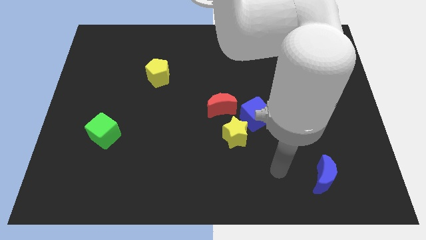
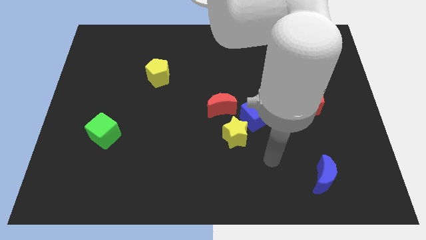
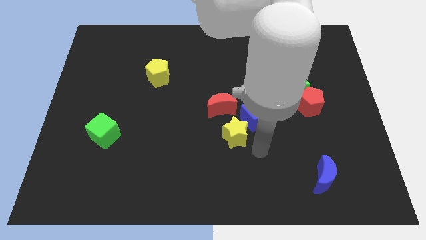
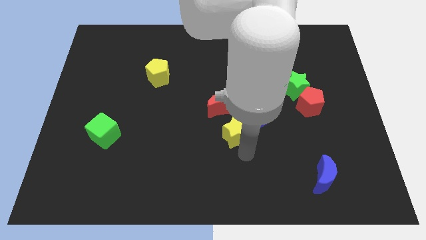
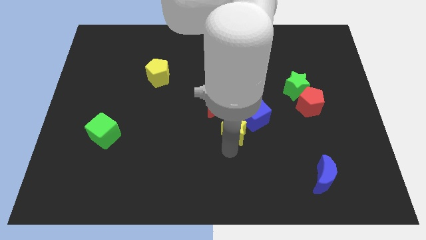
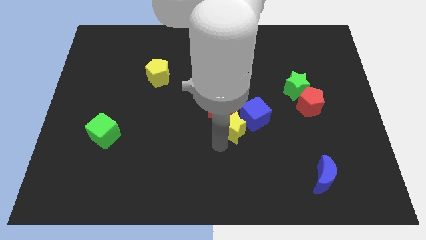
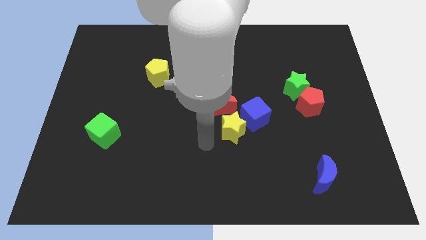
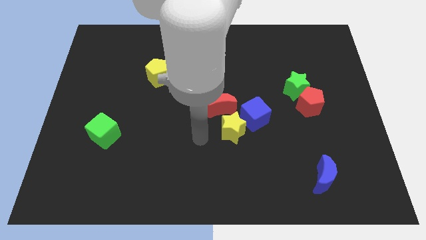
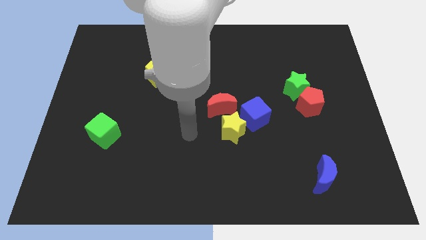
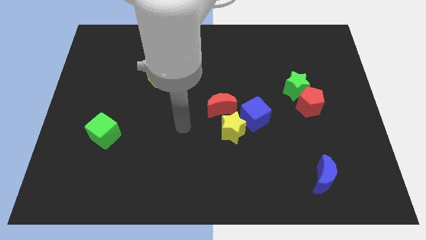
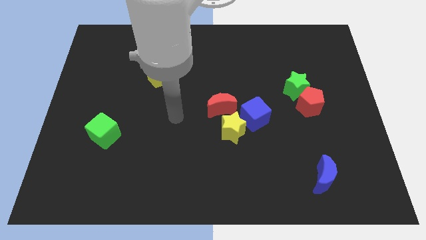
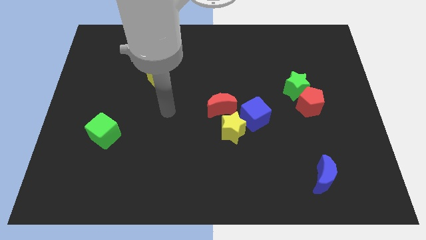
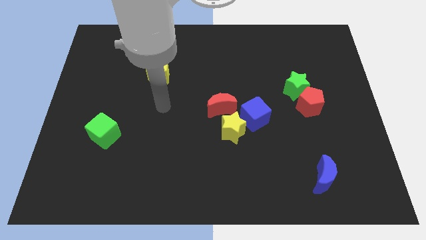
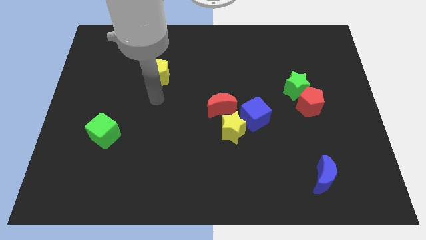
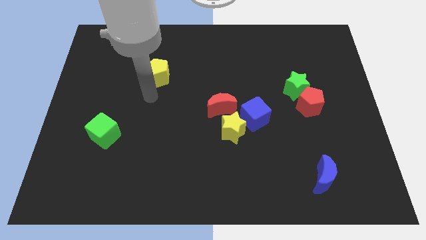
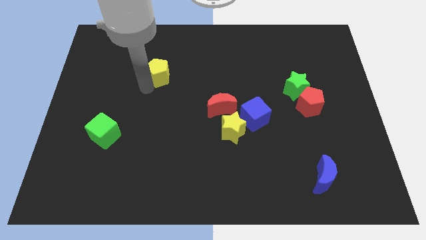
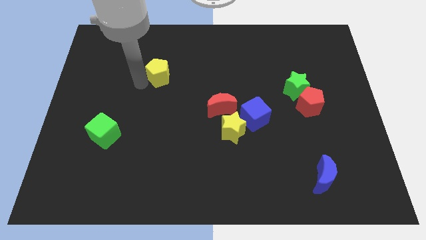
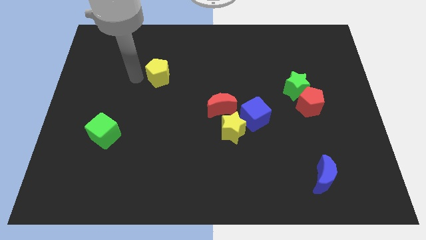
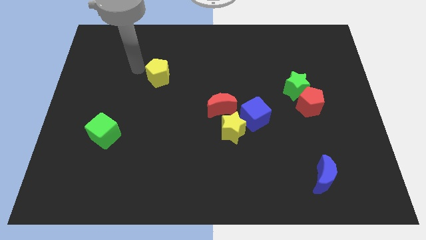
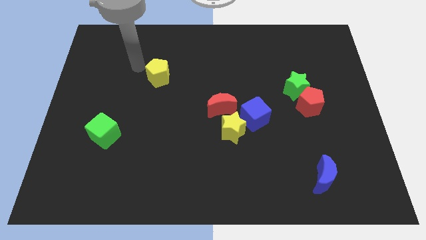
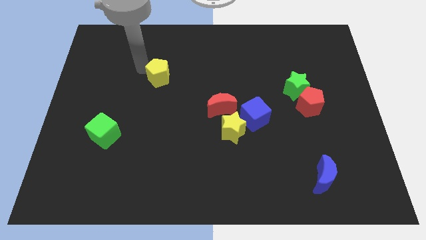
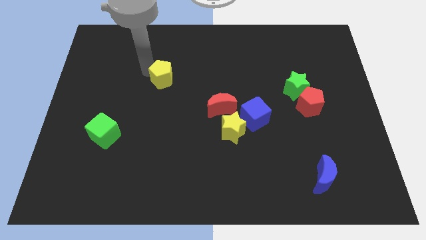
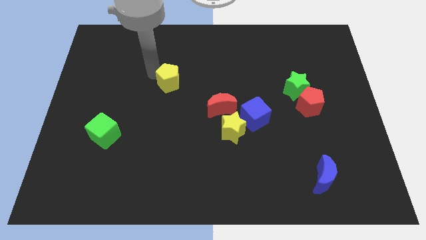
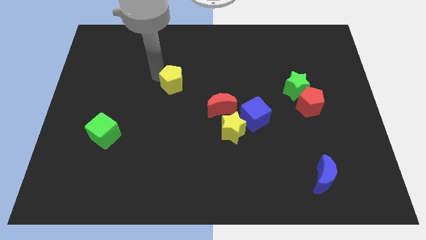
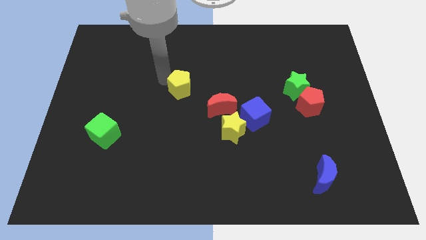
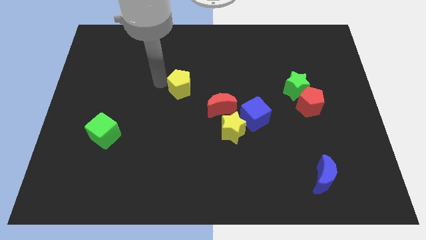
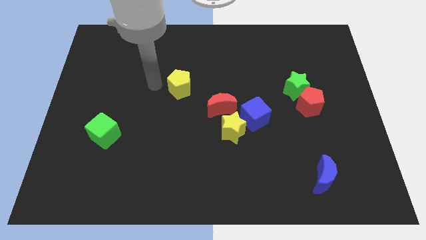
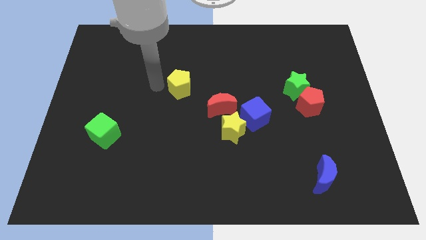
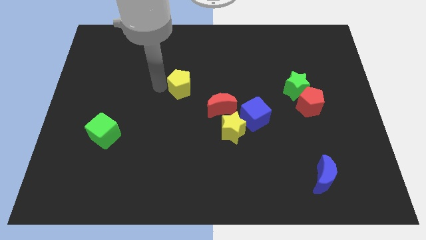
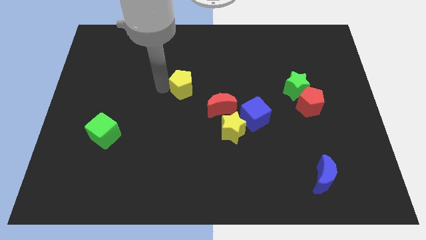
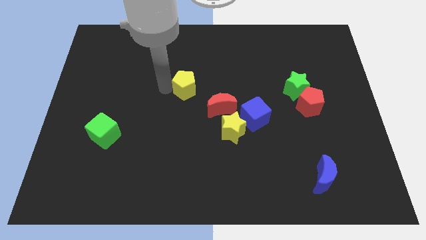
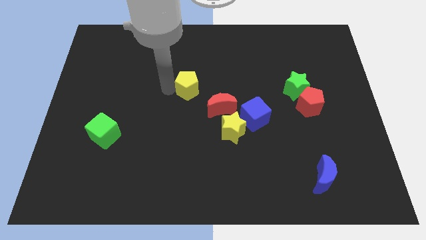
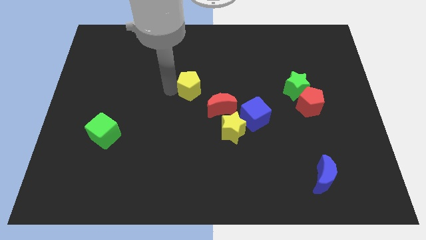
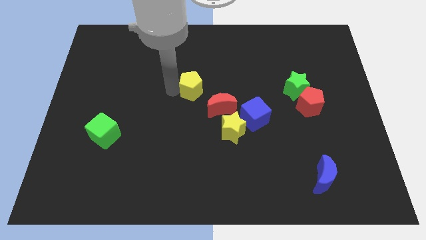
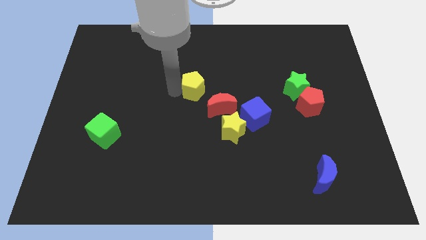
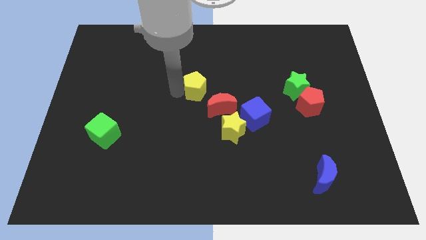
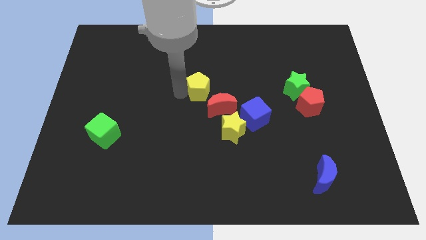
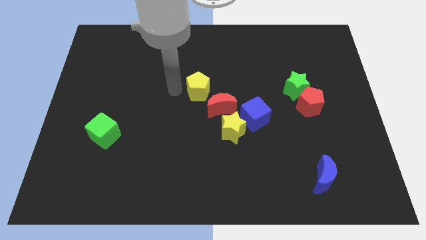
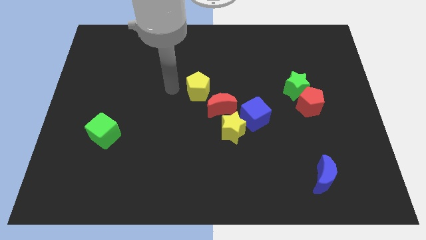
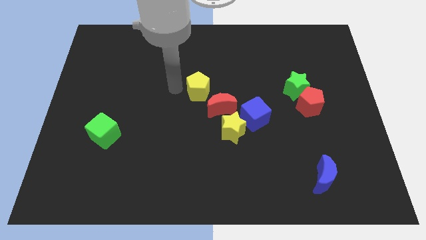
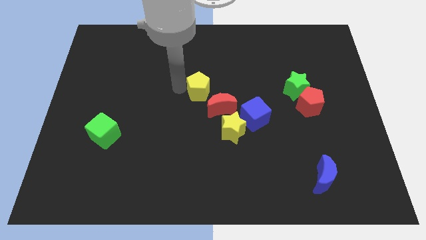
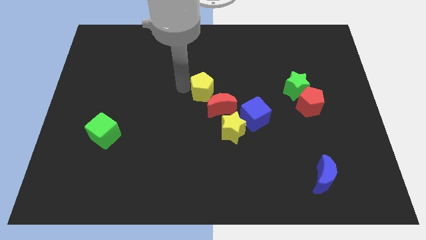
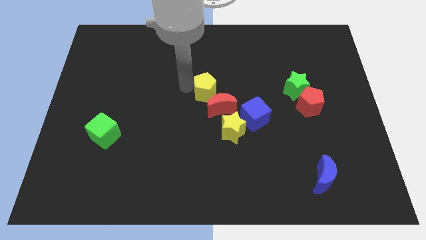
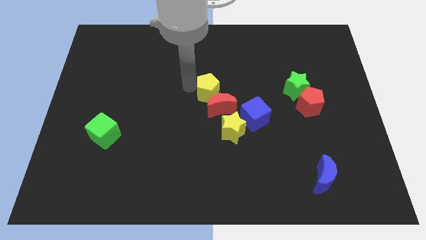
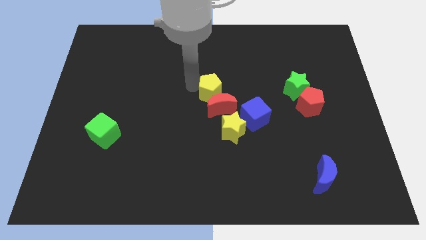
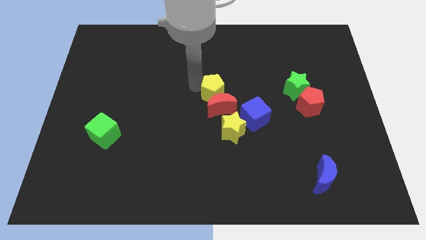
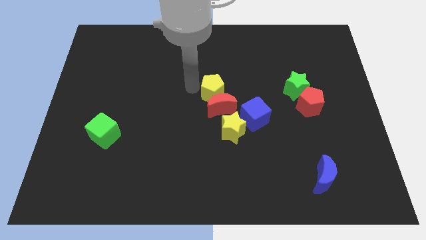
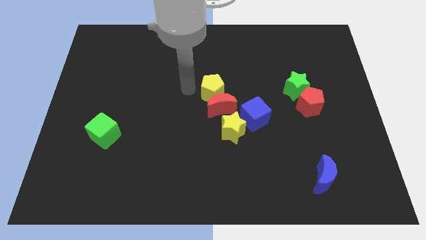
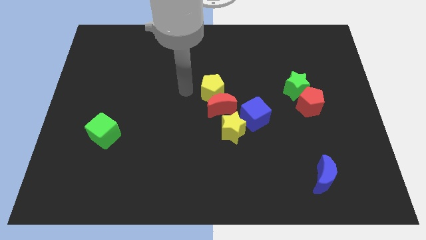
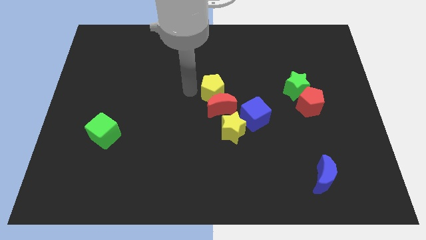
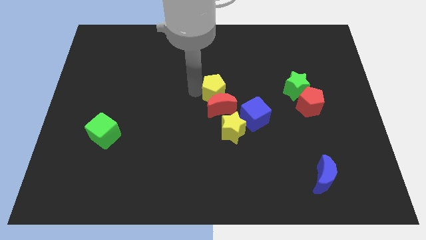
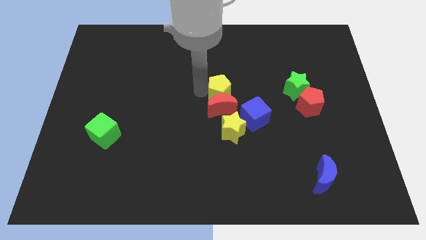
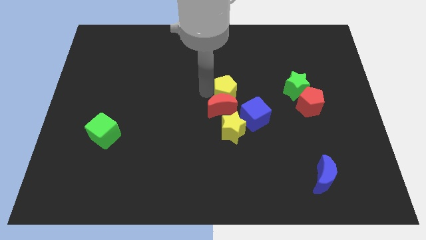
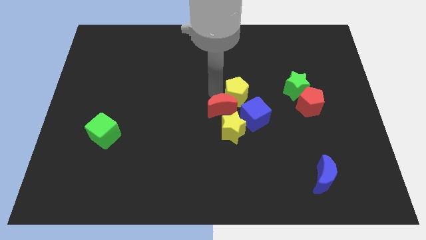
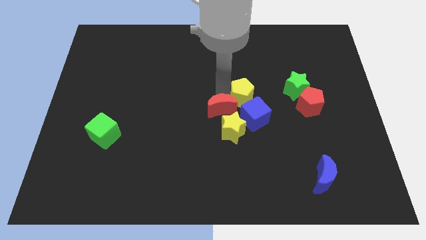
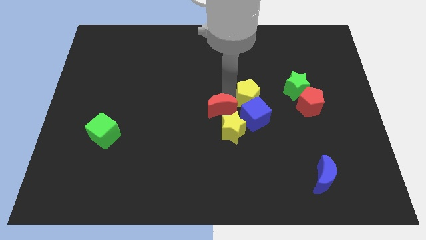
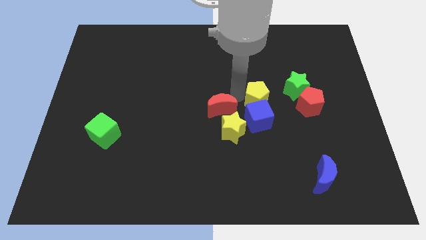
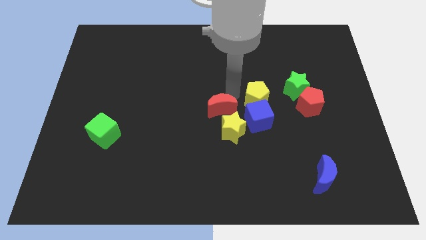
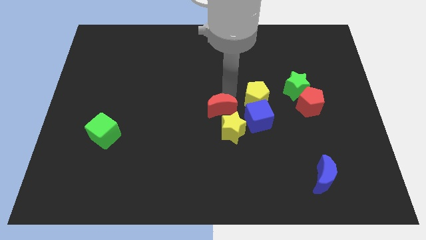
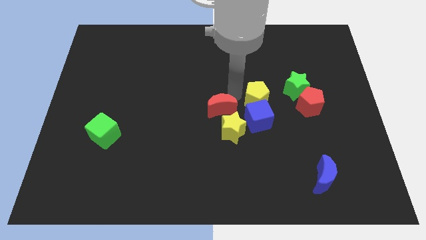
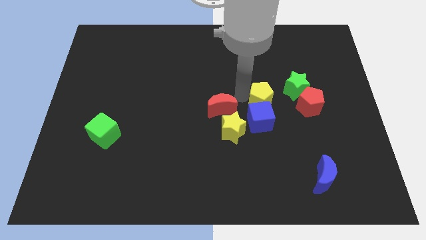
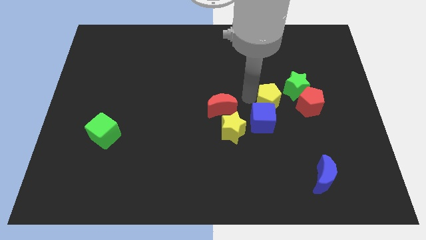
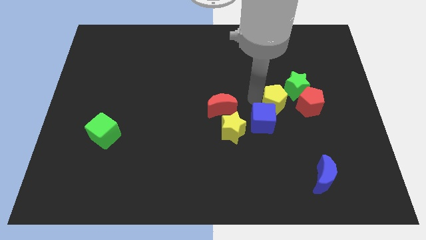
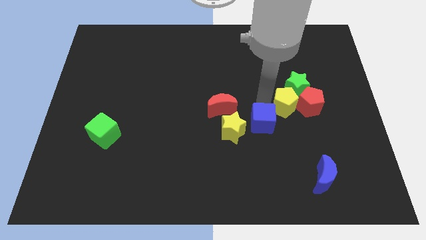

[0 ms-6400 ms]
move the yellow pentagon next to the red pentagon

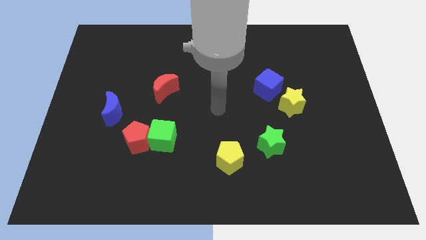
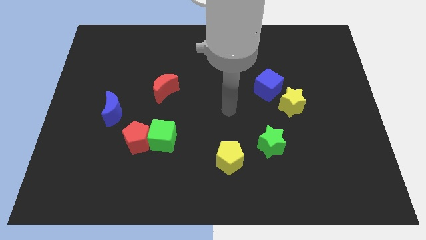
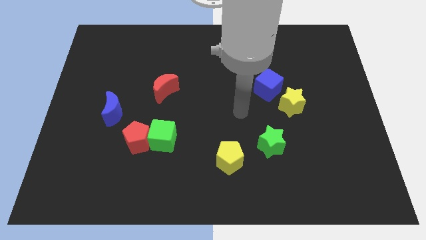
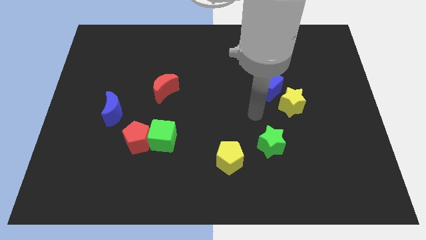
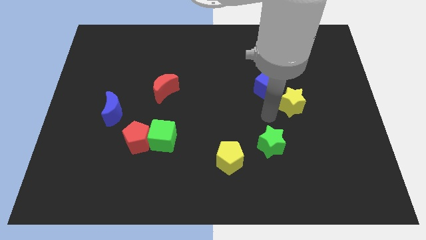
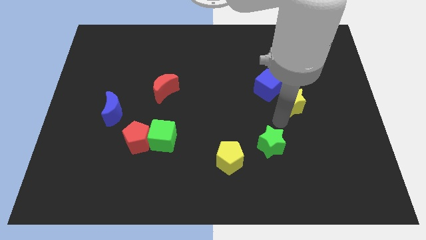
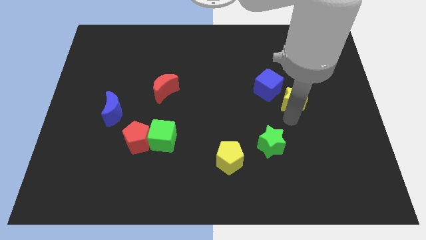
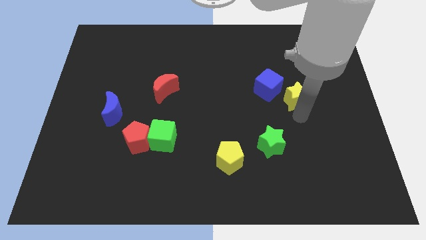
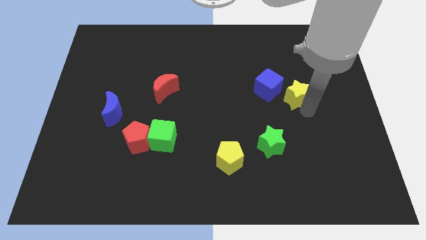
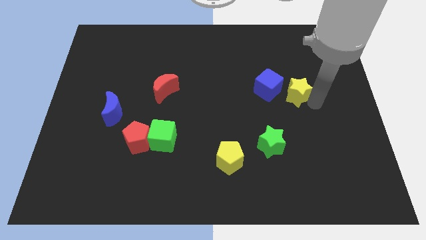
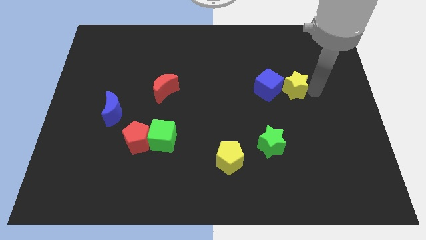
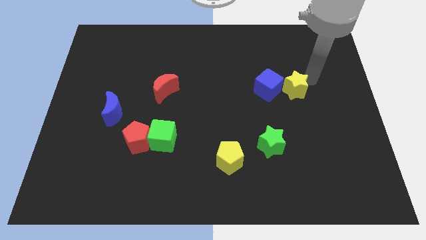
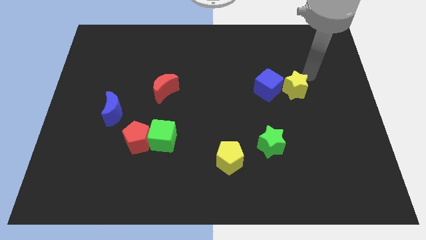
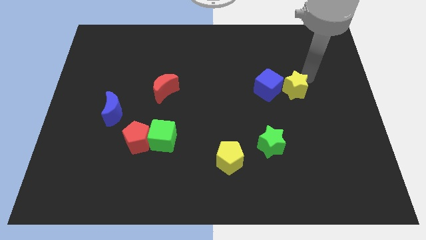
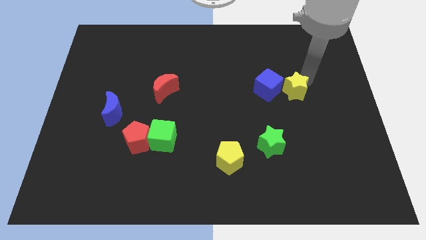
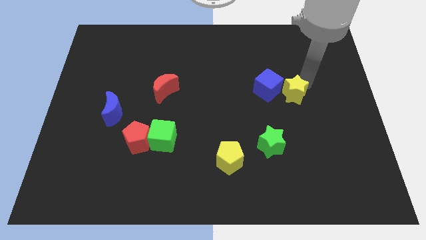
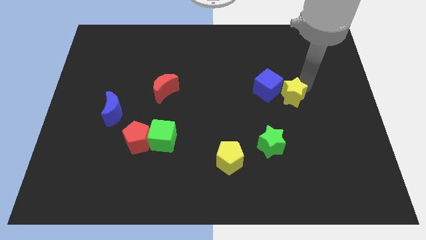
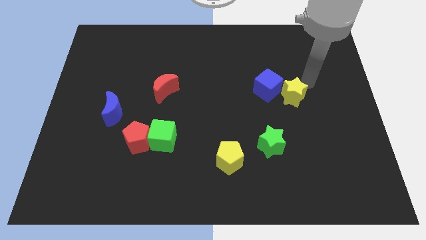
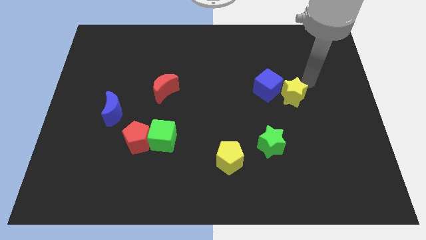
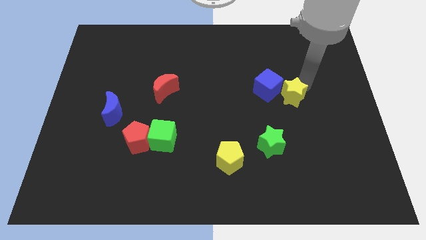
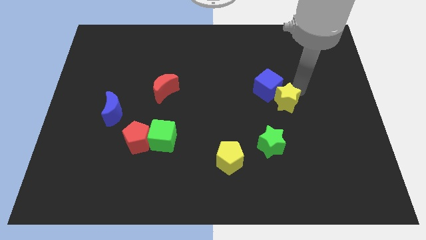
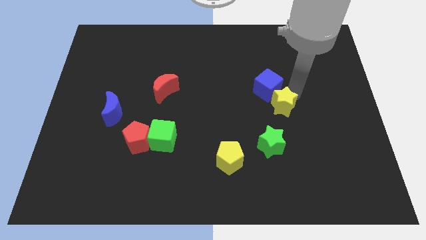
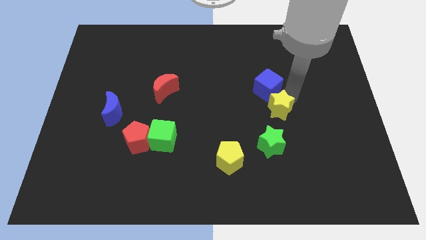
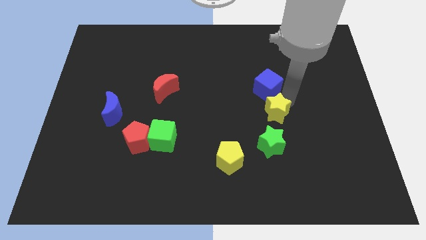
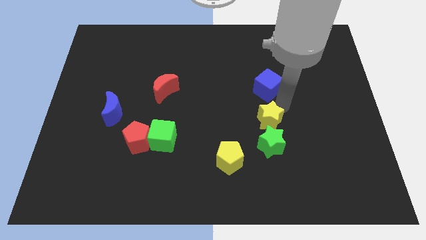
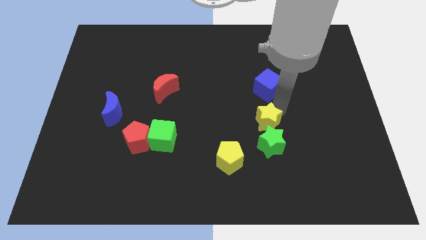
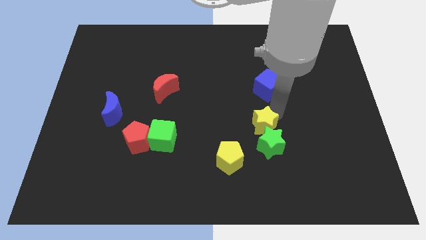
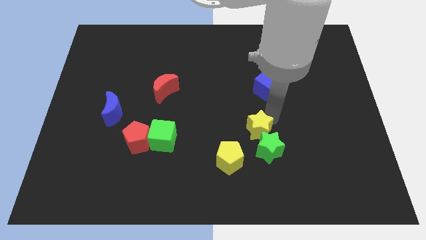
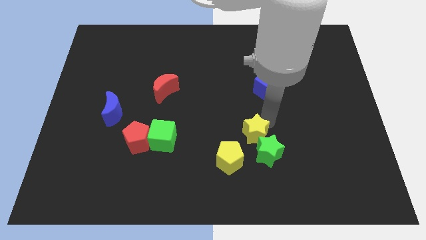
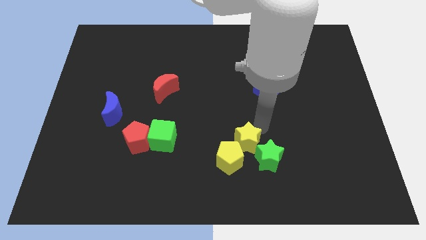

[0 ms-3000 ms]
put the yellow star next to the yellow pentagon
